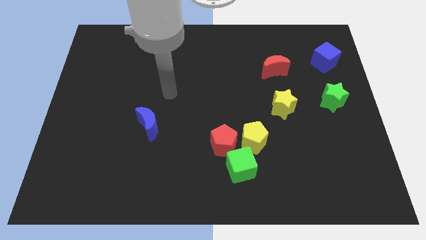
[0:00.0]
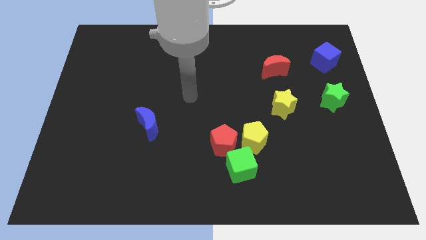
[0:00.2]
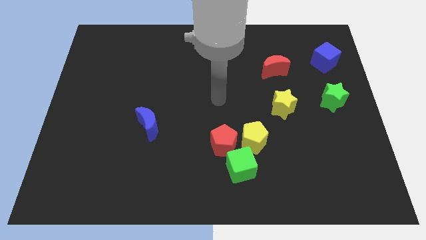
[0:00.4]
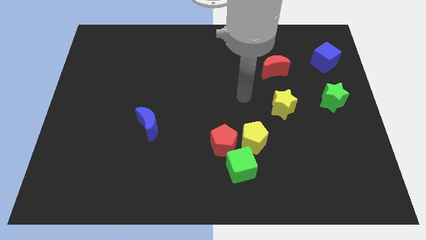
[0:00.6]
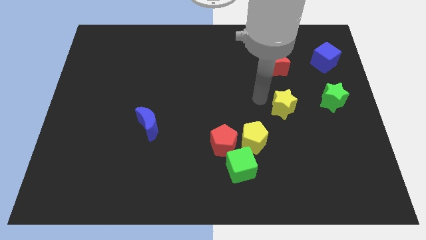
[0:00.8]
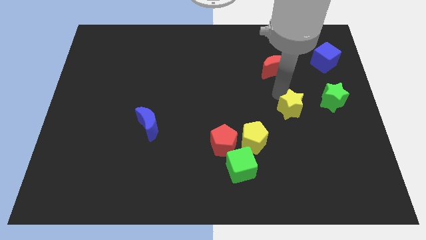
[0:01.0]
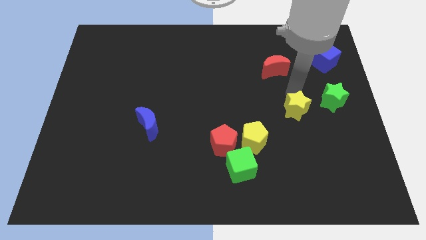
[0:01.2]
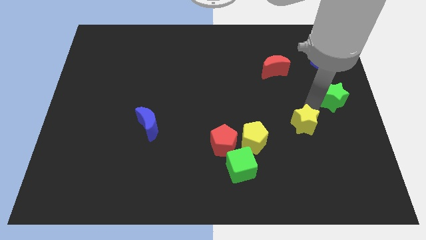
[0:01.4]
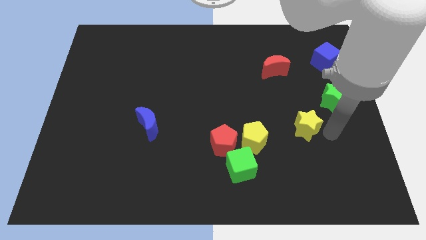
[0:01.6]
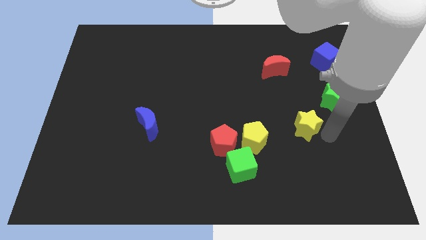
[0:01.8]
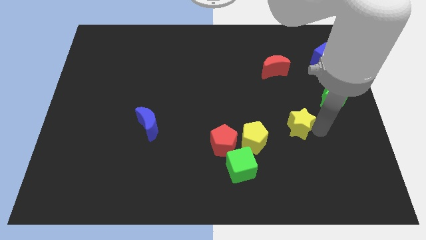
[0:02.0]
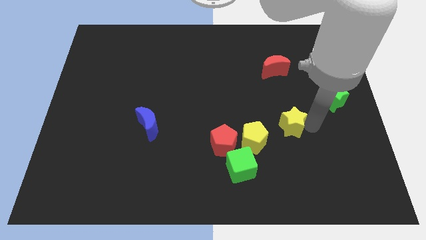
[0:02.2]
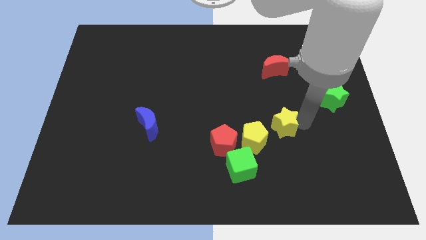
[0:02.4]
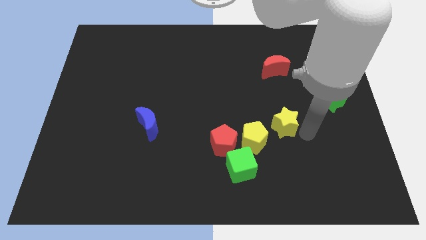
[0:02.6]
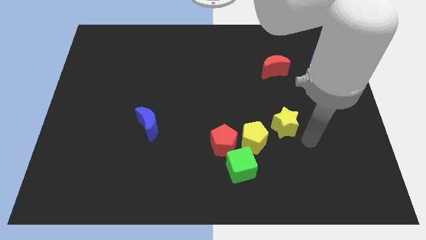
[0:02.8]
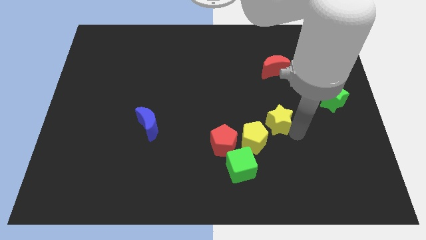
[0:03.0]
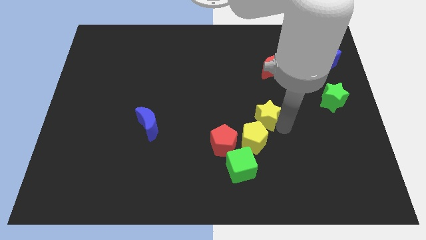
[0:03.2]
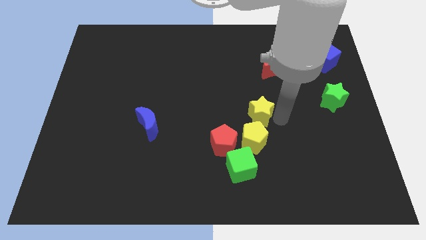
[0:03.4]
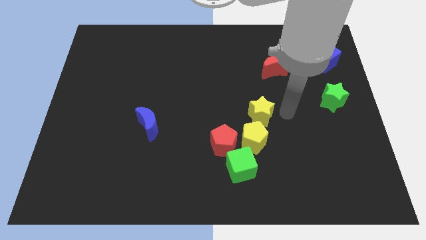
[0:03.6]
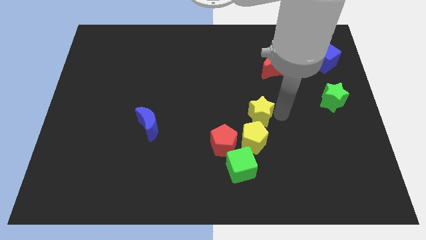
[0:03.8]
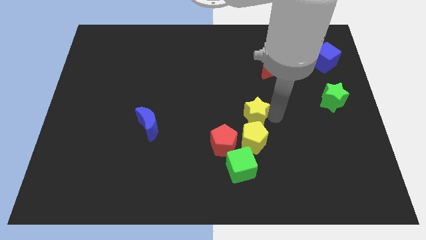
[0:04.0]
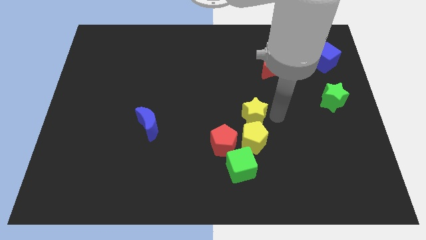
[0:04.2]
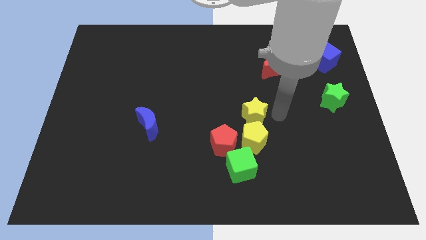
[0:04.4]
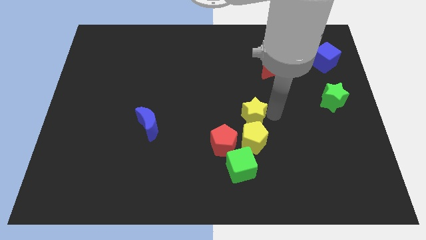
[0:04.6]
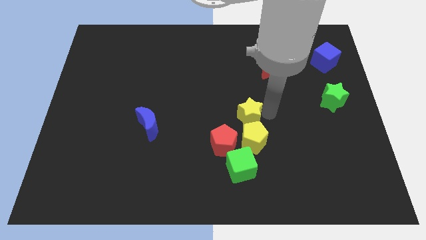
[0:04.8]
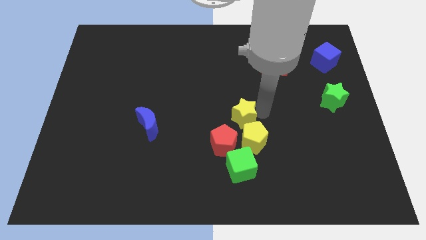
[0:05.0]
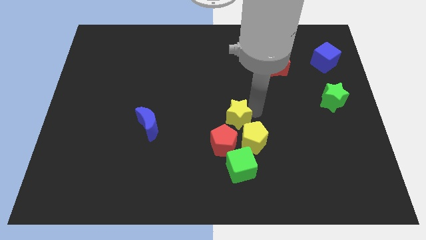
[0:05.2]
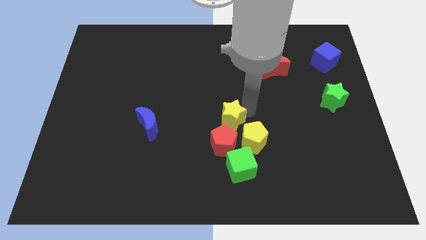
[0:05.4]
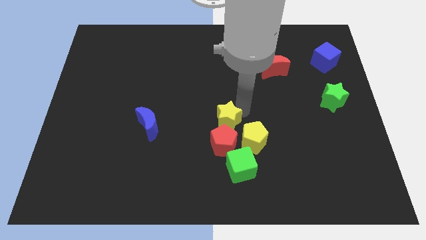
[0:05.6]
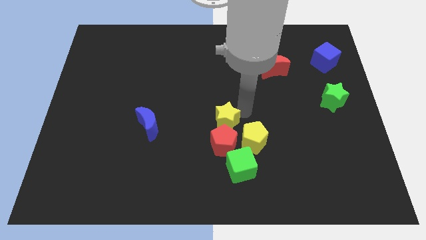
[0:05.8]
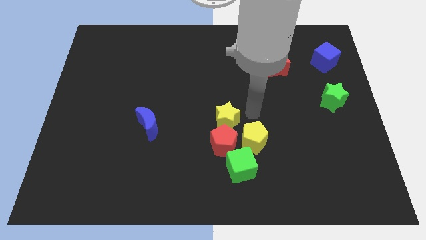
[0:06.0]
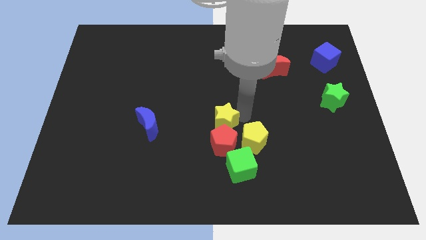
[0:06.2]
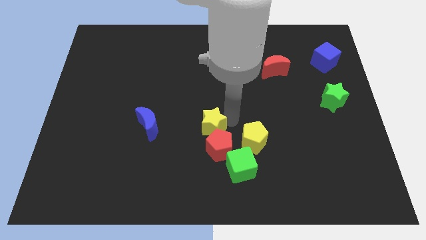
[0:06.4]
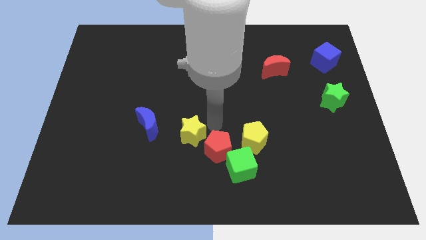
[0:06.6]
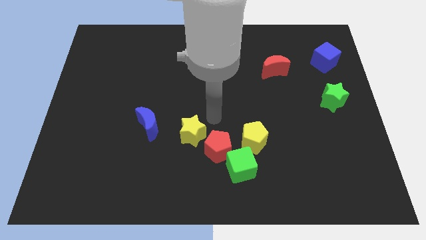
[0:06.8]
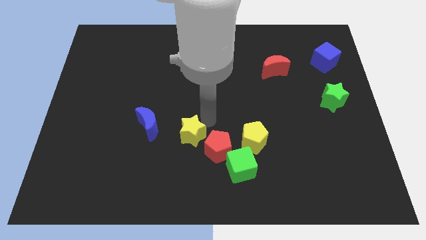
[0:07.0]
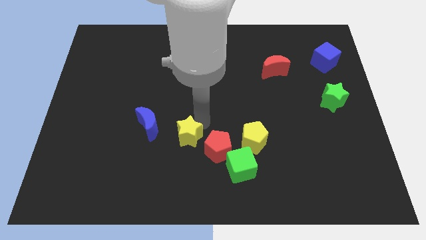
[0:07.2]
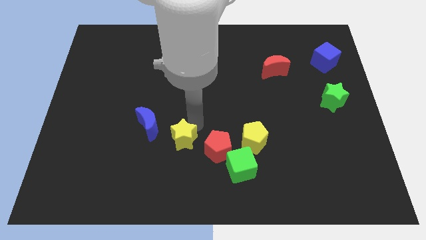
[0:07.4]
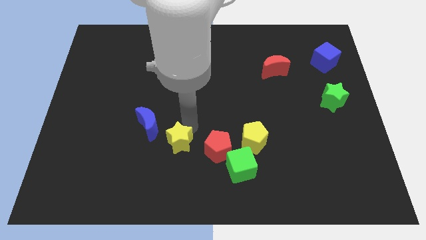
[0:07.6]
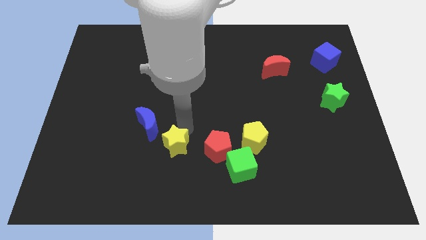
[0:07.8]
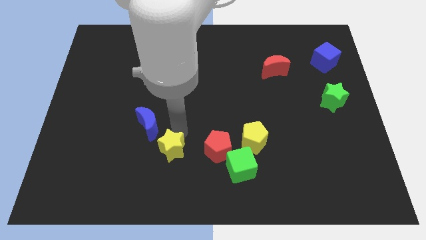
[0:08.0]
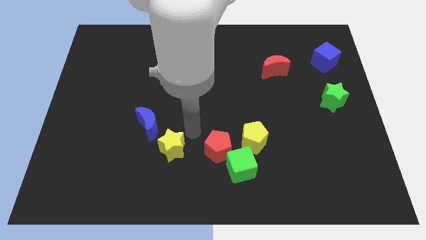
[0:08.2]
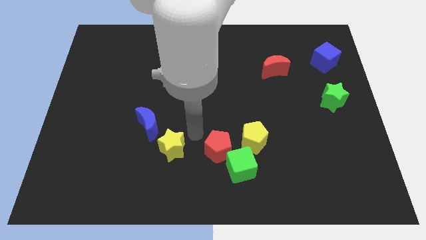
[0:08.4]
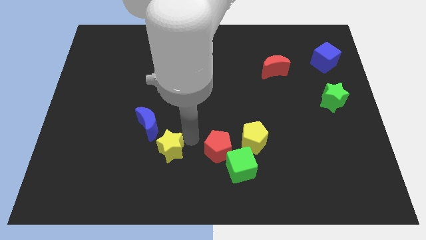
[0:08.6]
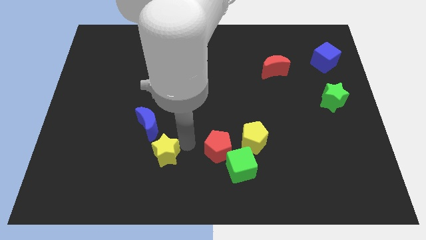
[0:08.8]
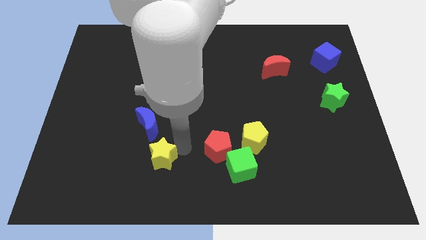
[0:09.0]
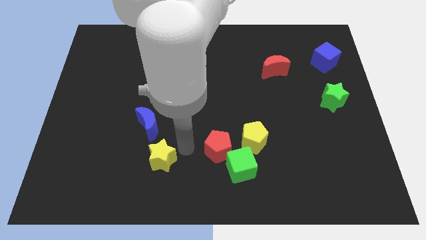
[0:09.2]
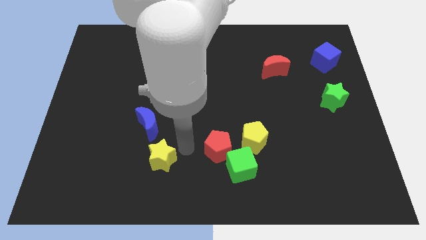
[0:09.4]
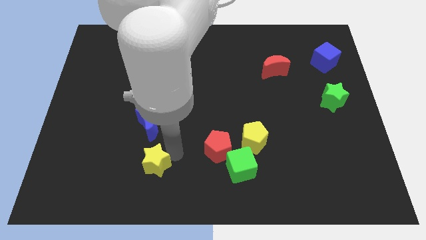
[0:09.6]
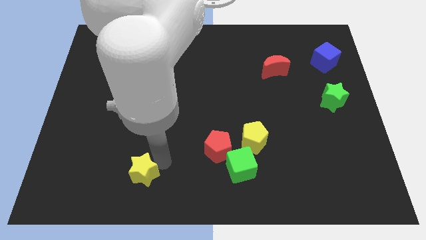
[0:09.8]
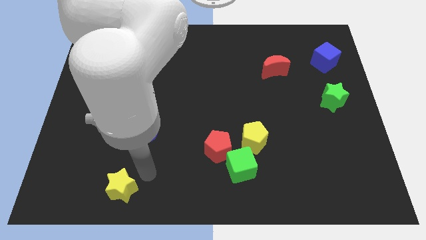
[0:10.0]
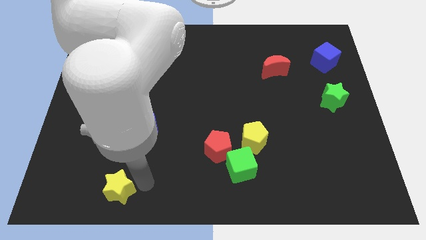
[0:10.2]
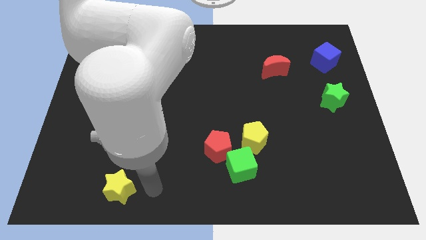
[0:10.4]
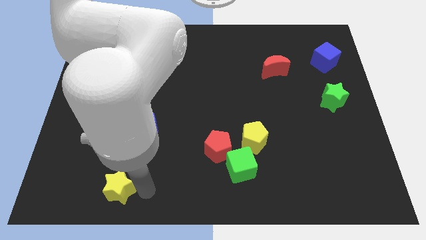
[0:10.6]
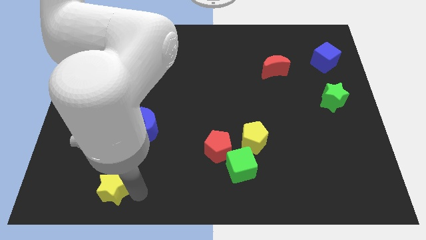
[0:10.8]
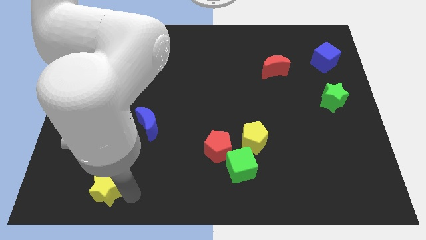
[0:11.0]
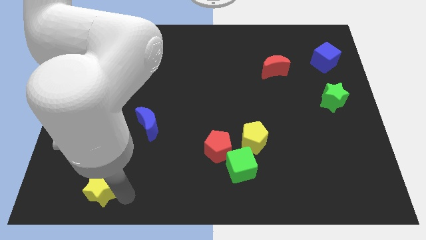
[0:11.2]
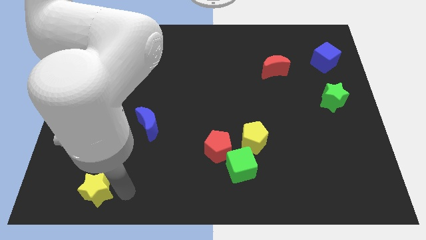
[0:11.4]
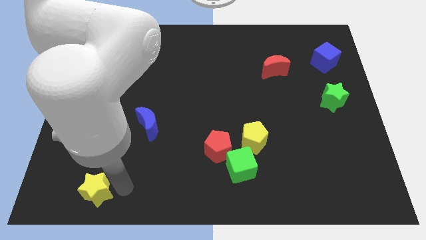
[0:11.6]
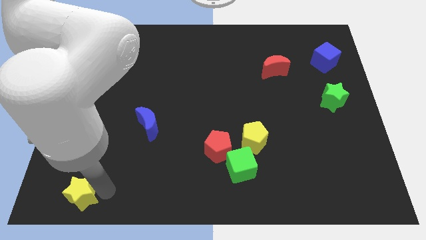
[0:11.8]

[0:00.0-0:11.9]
push the yellow star to the bottom left of the board
